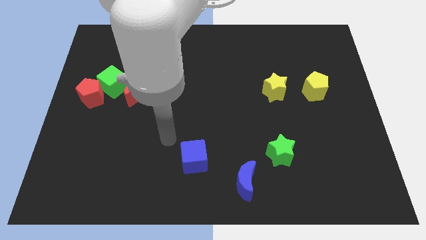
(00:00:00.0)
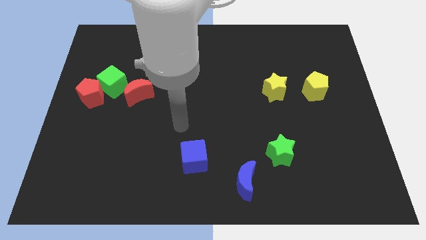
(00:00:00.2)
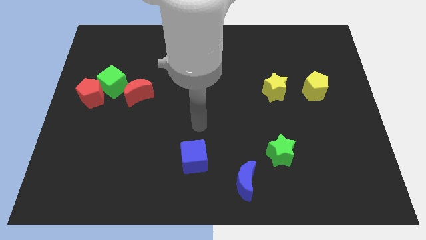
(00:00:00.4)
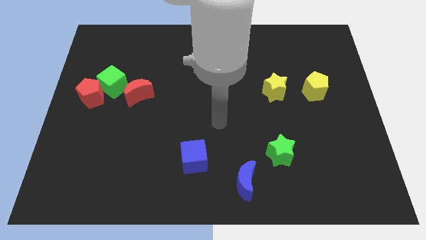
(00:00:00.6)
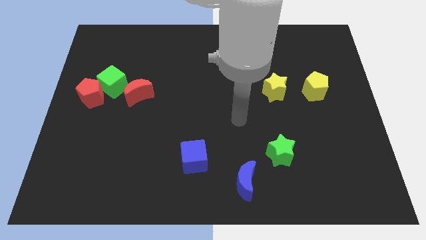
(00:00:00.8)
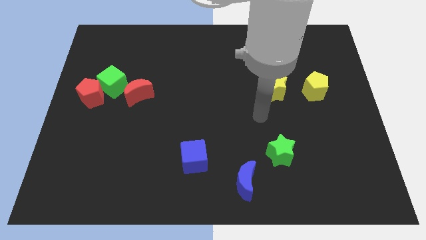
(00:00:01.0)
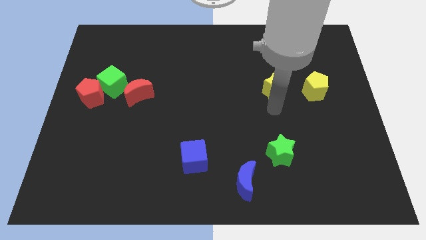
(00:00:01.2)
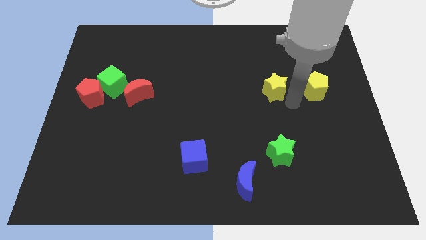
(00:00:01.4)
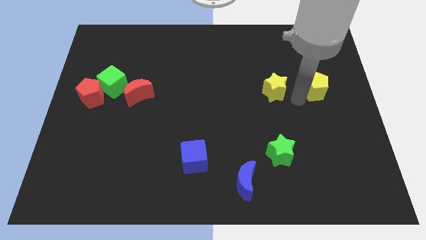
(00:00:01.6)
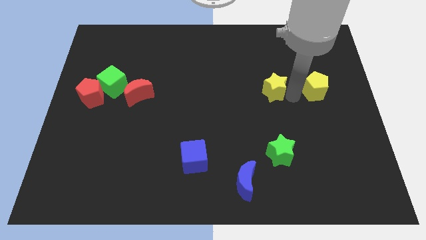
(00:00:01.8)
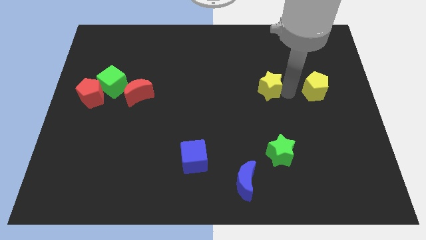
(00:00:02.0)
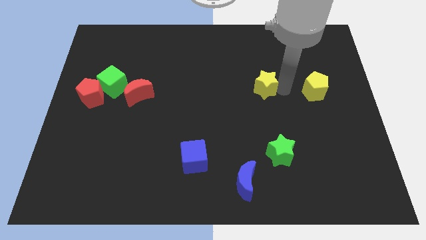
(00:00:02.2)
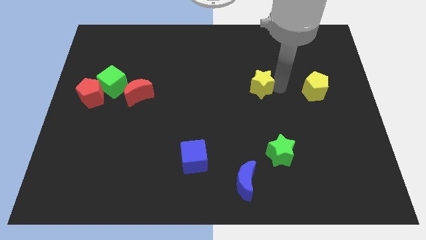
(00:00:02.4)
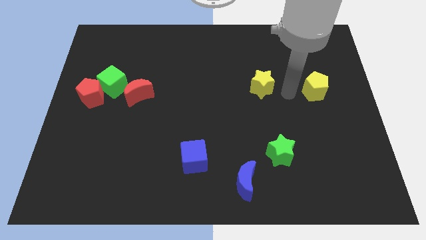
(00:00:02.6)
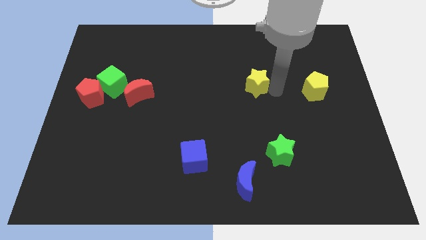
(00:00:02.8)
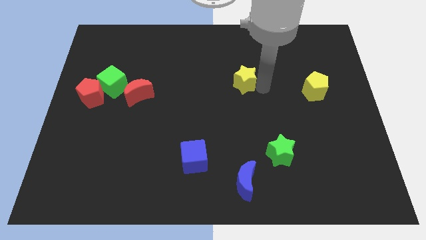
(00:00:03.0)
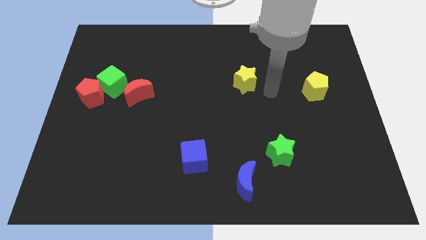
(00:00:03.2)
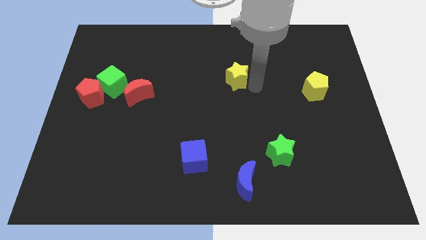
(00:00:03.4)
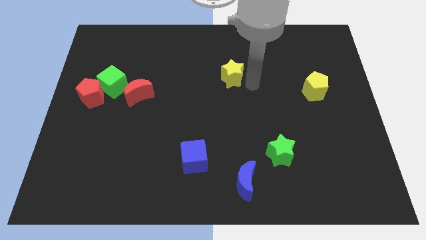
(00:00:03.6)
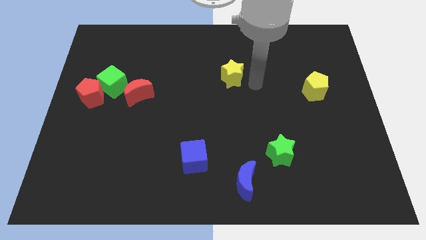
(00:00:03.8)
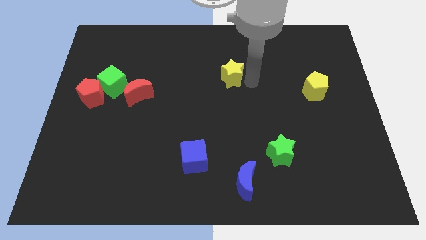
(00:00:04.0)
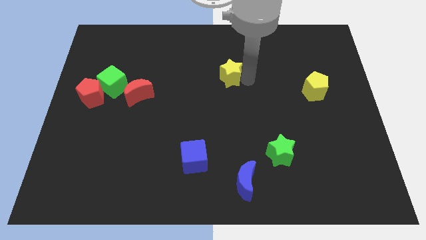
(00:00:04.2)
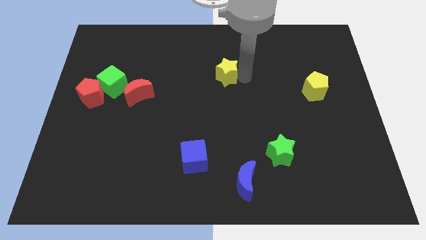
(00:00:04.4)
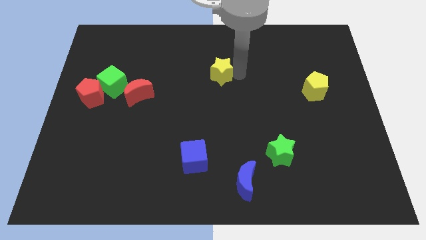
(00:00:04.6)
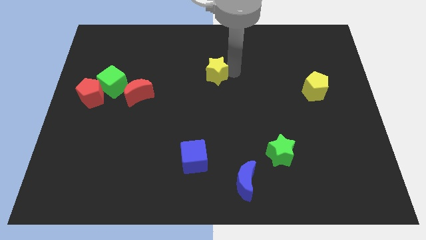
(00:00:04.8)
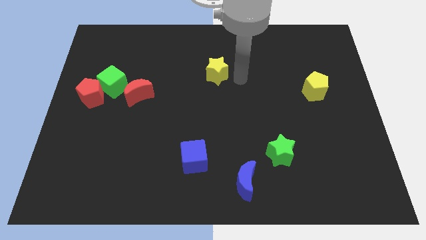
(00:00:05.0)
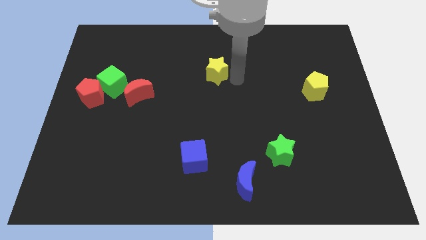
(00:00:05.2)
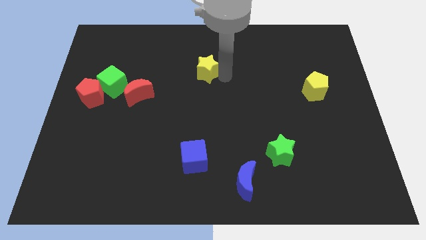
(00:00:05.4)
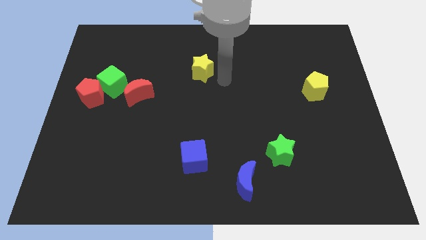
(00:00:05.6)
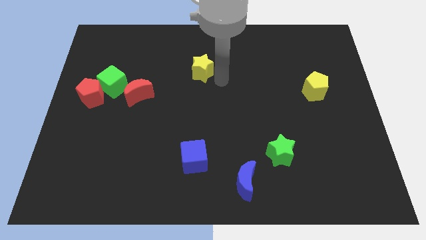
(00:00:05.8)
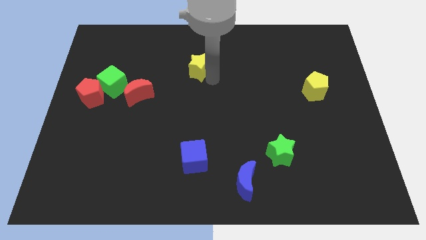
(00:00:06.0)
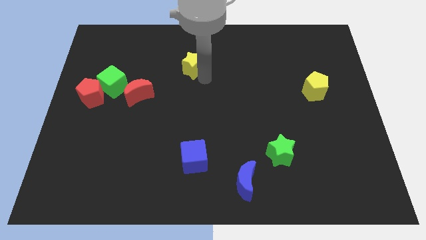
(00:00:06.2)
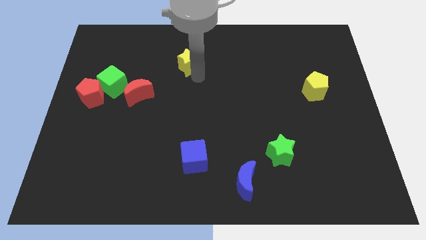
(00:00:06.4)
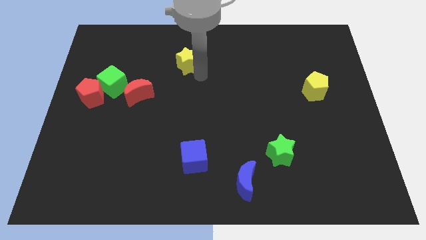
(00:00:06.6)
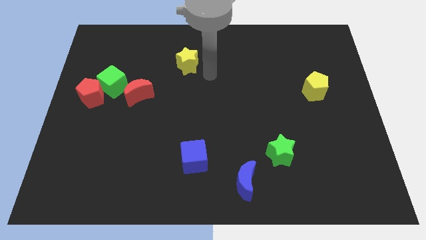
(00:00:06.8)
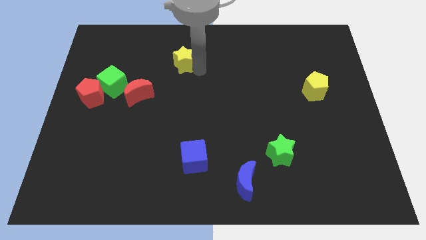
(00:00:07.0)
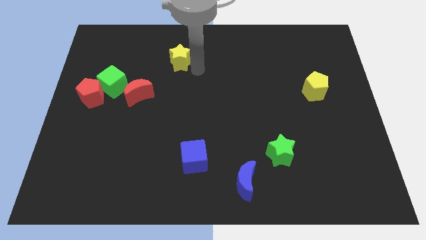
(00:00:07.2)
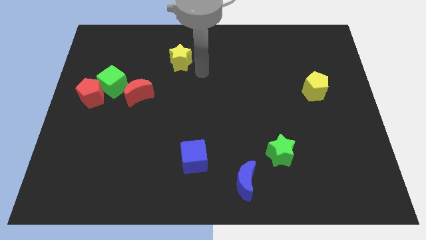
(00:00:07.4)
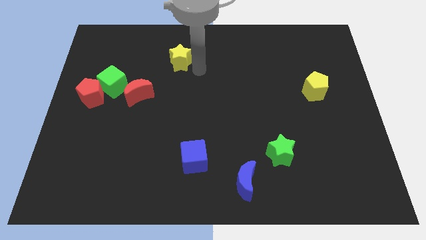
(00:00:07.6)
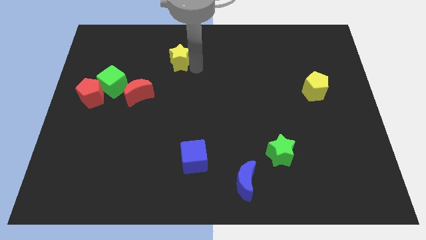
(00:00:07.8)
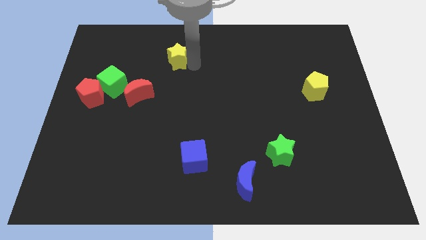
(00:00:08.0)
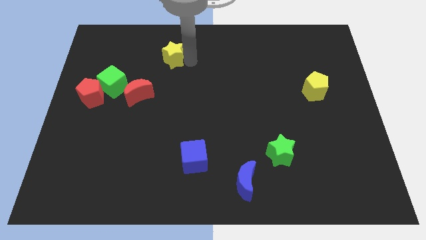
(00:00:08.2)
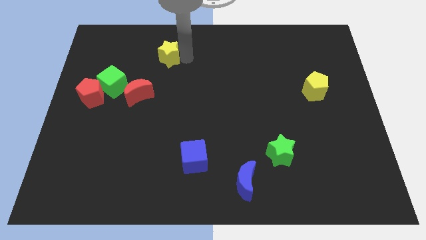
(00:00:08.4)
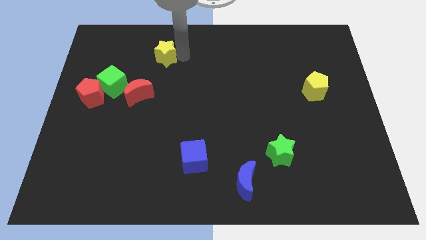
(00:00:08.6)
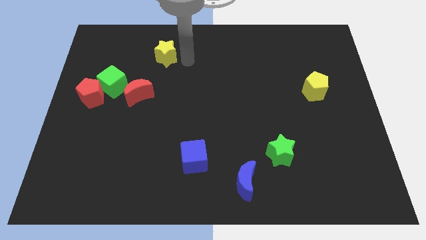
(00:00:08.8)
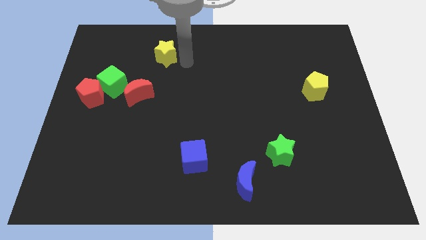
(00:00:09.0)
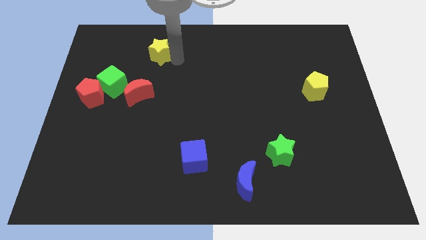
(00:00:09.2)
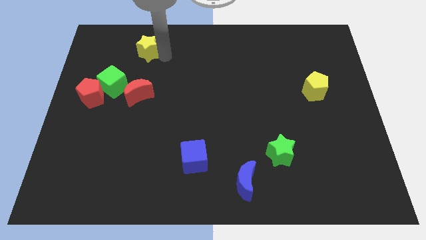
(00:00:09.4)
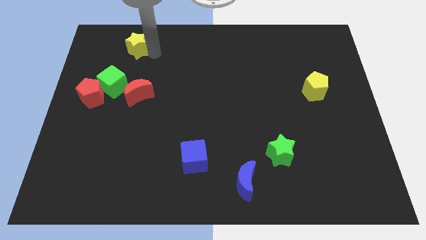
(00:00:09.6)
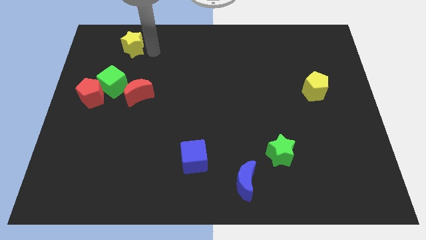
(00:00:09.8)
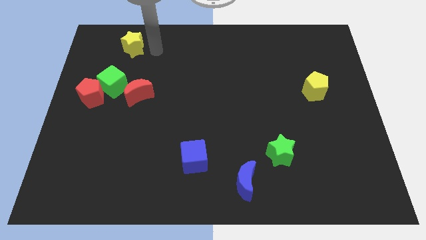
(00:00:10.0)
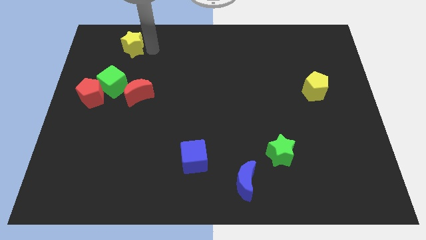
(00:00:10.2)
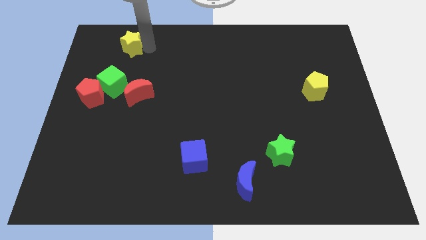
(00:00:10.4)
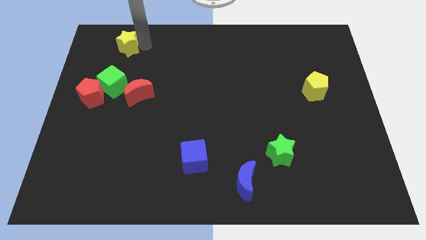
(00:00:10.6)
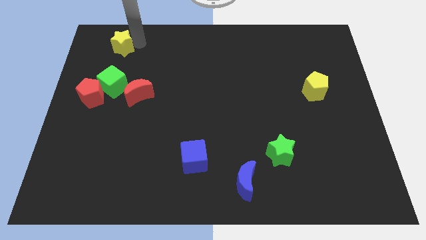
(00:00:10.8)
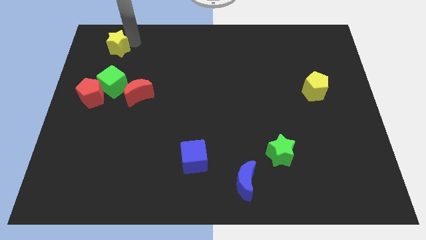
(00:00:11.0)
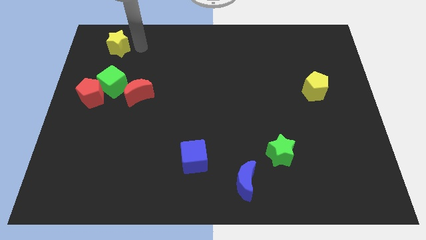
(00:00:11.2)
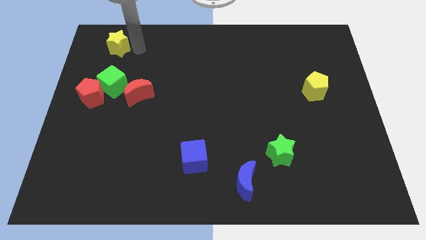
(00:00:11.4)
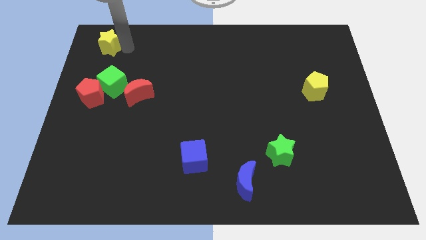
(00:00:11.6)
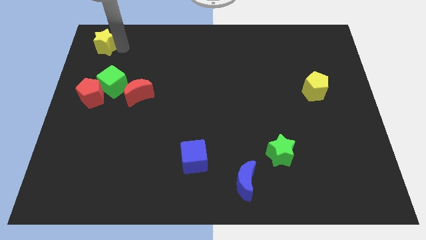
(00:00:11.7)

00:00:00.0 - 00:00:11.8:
move the yellow star to the top left

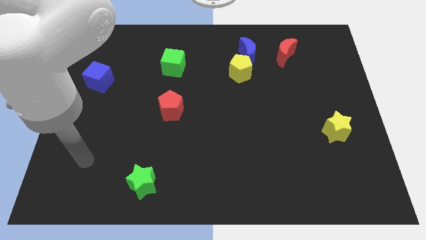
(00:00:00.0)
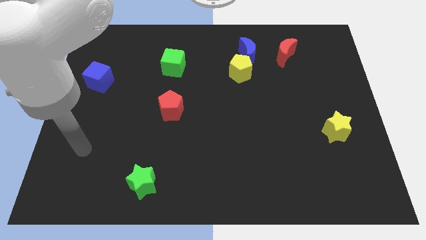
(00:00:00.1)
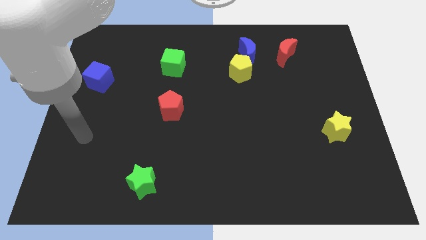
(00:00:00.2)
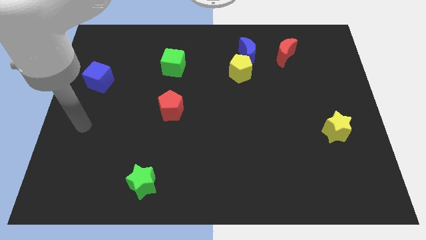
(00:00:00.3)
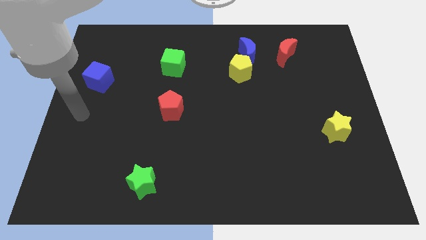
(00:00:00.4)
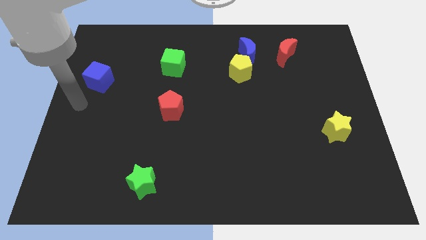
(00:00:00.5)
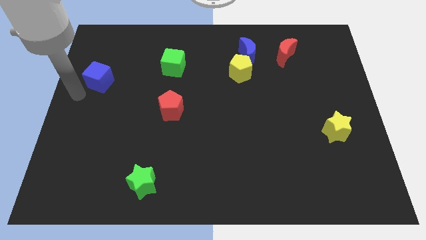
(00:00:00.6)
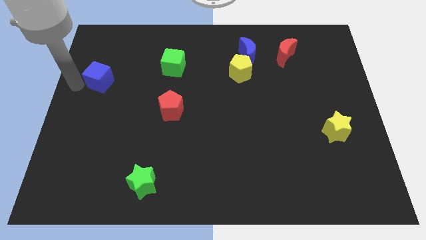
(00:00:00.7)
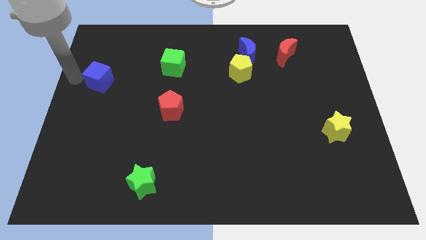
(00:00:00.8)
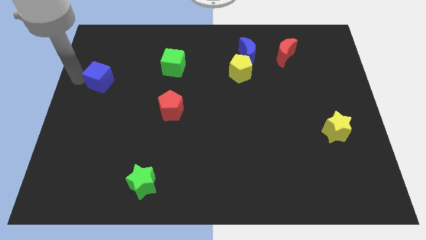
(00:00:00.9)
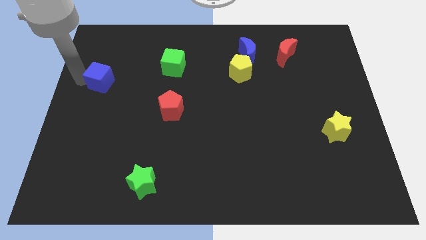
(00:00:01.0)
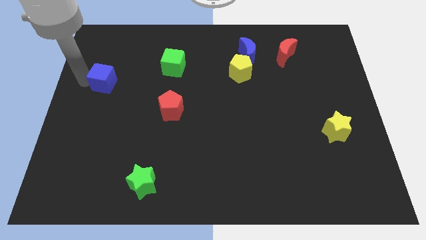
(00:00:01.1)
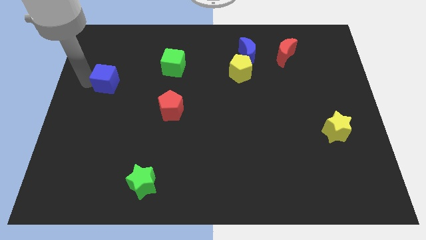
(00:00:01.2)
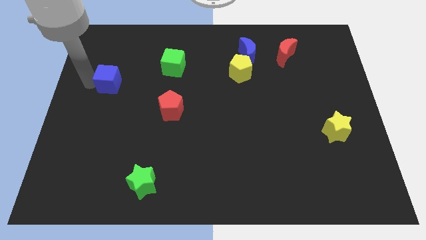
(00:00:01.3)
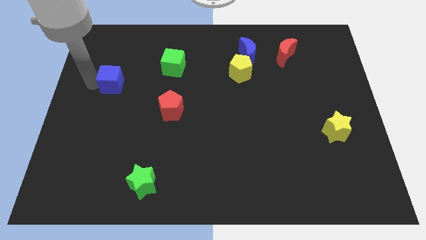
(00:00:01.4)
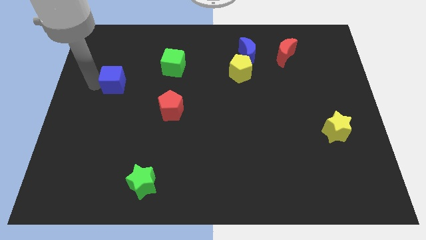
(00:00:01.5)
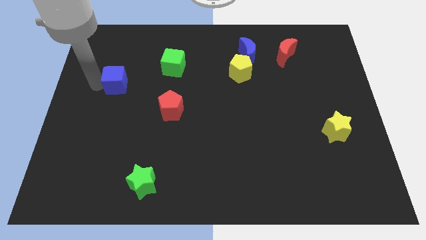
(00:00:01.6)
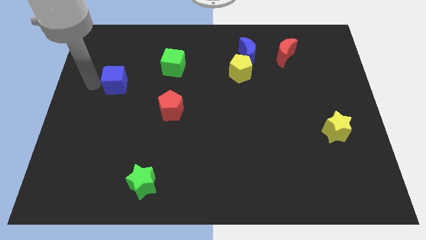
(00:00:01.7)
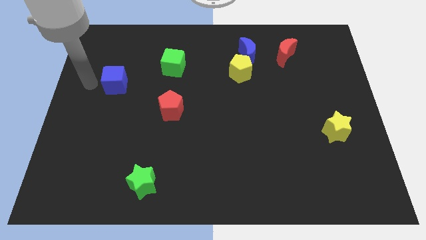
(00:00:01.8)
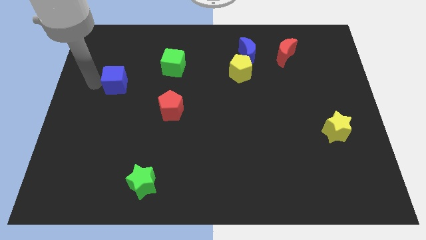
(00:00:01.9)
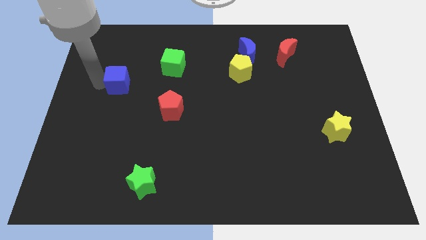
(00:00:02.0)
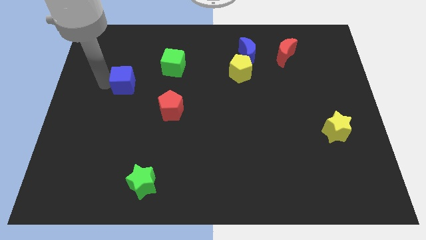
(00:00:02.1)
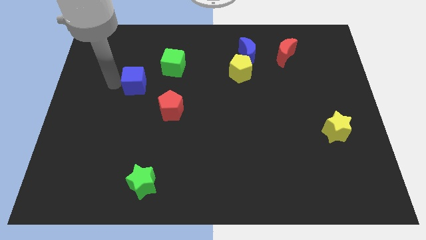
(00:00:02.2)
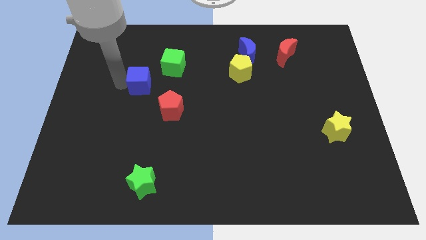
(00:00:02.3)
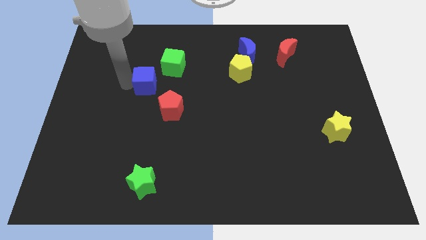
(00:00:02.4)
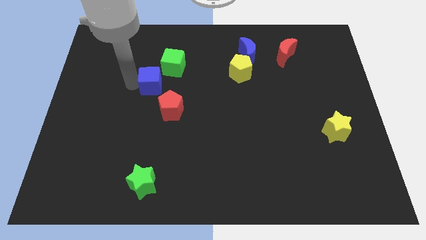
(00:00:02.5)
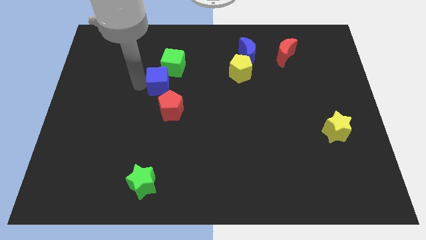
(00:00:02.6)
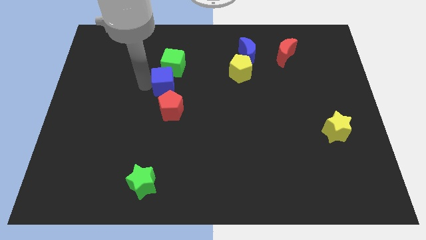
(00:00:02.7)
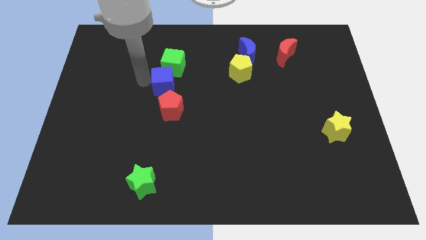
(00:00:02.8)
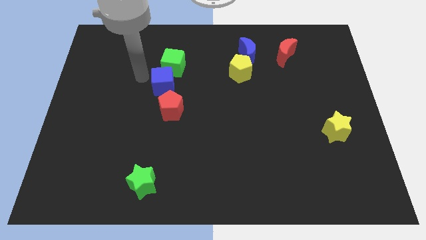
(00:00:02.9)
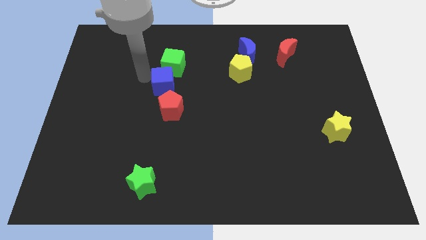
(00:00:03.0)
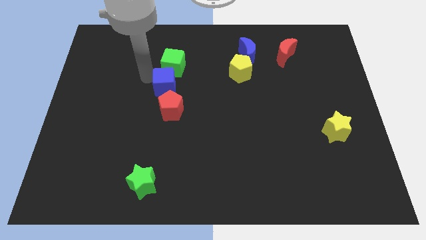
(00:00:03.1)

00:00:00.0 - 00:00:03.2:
push the blue cube to the center
